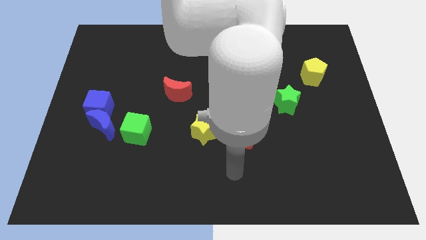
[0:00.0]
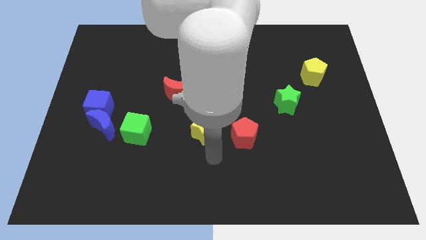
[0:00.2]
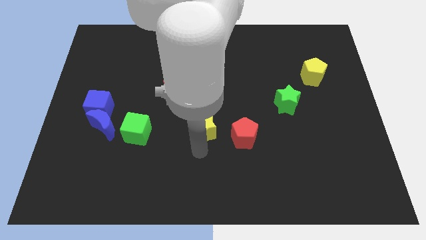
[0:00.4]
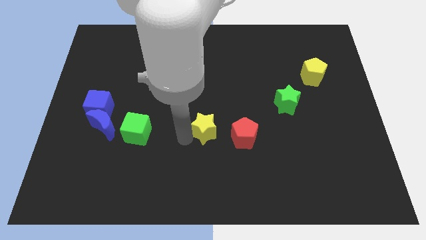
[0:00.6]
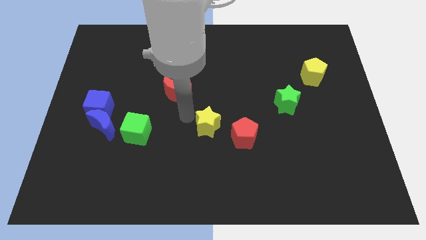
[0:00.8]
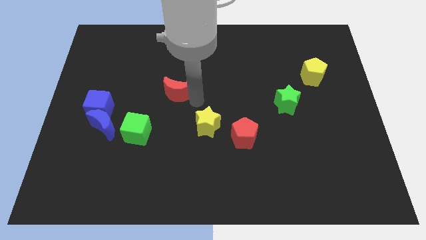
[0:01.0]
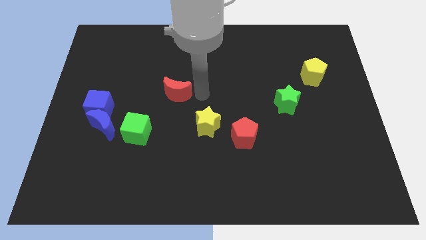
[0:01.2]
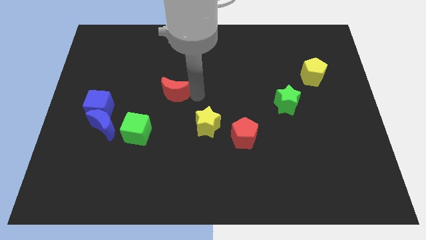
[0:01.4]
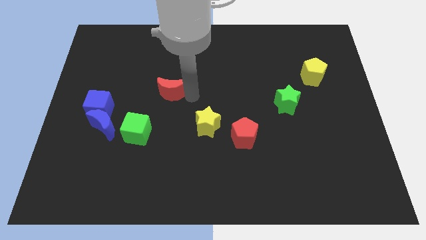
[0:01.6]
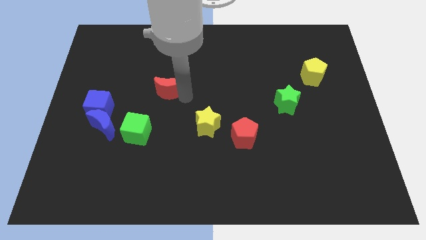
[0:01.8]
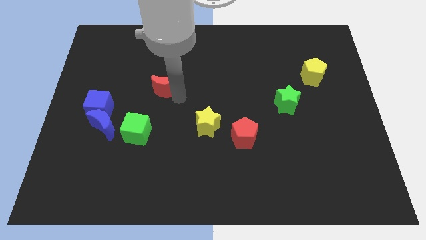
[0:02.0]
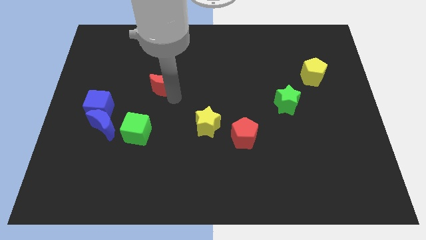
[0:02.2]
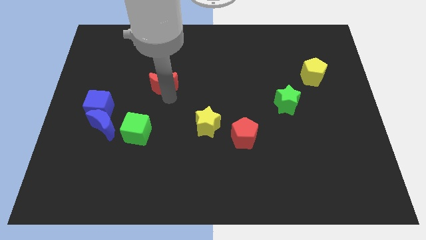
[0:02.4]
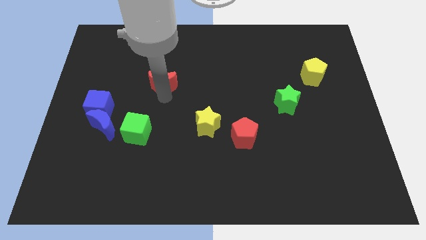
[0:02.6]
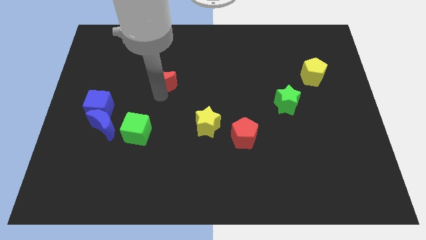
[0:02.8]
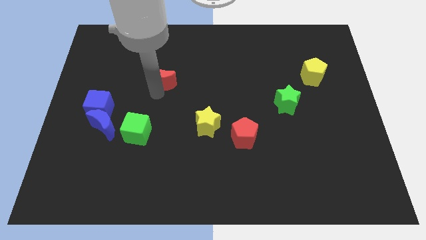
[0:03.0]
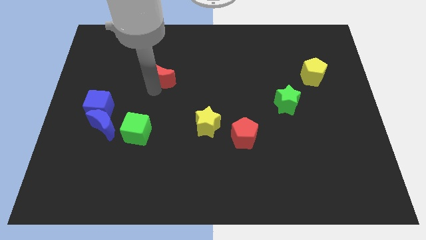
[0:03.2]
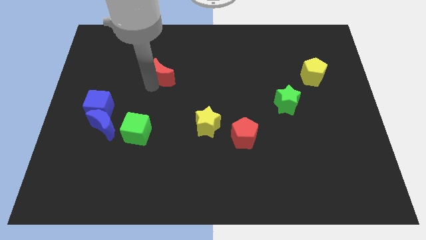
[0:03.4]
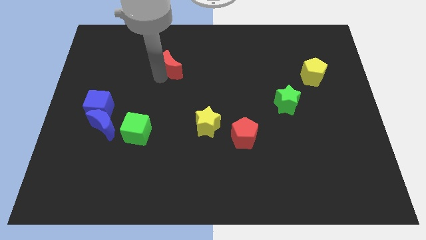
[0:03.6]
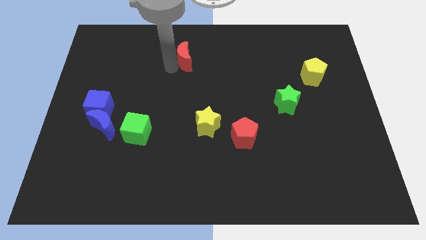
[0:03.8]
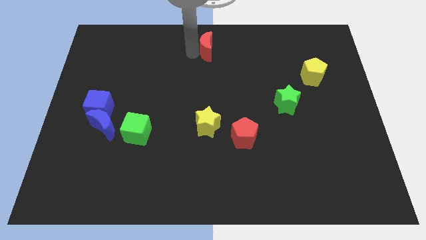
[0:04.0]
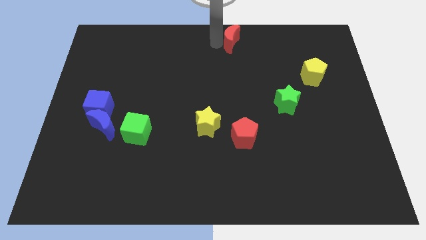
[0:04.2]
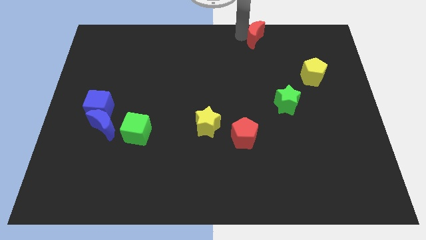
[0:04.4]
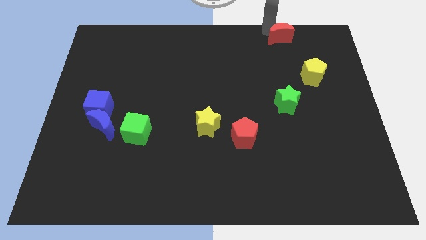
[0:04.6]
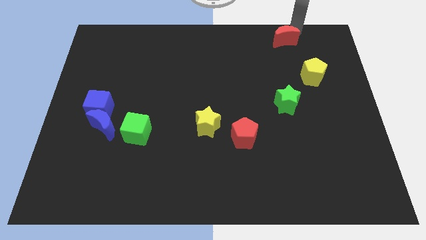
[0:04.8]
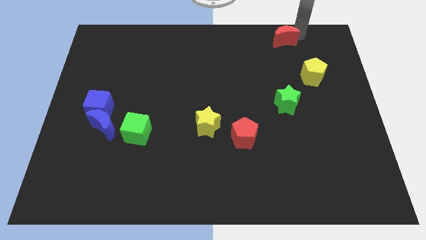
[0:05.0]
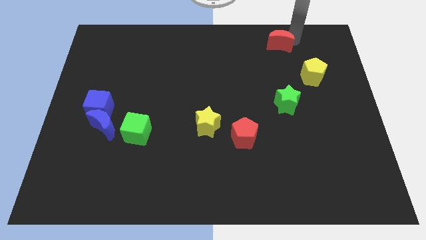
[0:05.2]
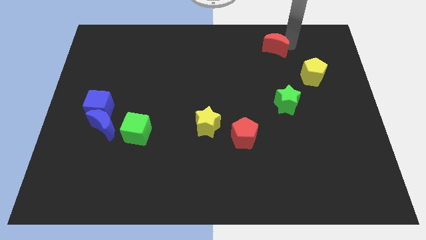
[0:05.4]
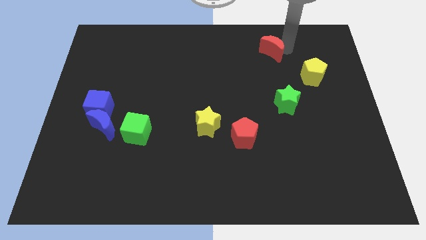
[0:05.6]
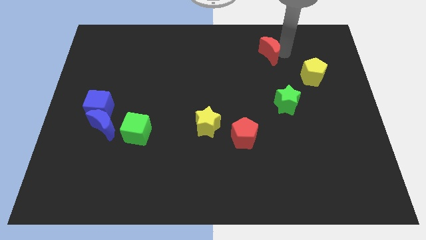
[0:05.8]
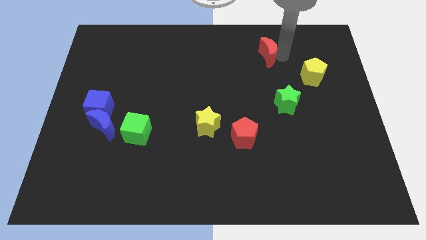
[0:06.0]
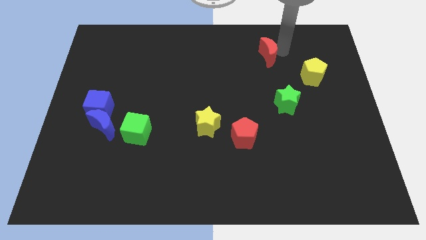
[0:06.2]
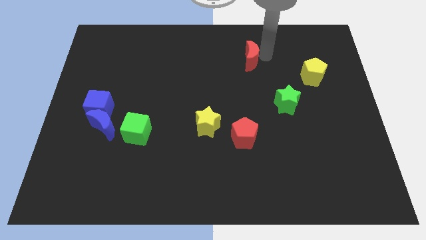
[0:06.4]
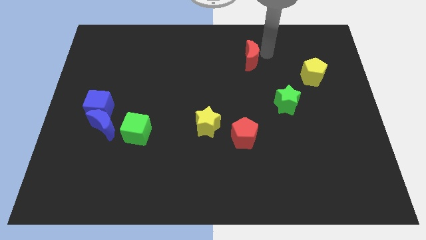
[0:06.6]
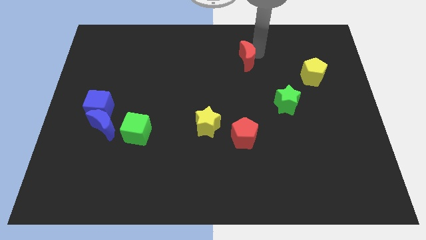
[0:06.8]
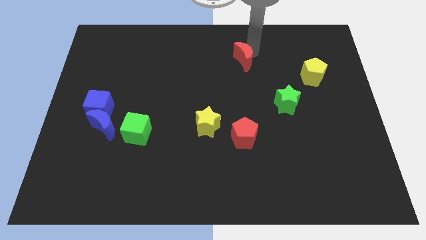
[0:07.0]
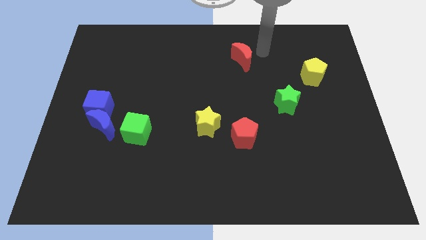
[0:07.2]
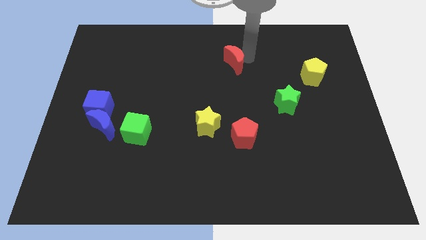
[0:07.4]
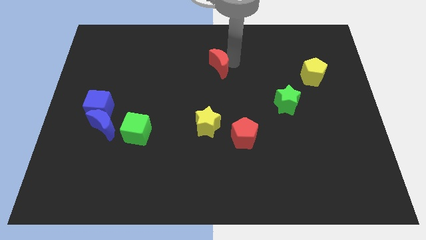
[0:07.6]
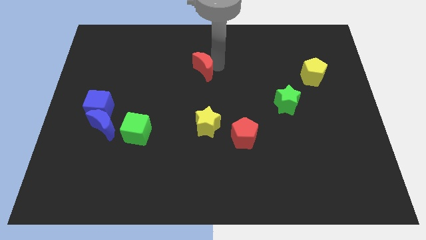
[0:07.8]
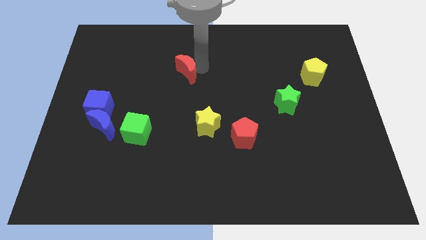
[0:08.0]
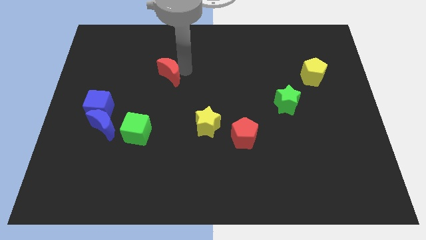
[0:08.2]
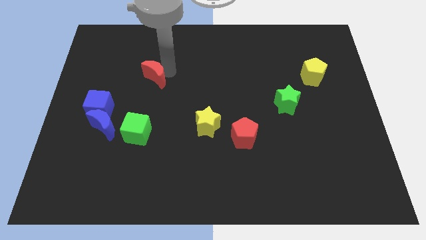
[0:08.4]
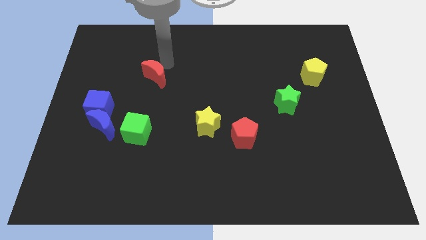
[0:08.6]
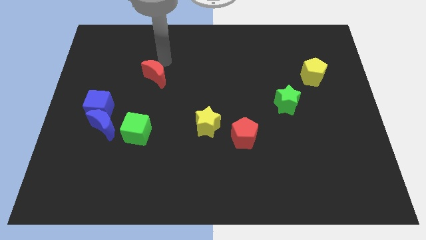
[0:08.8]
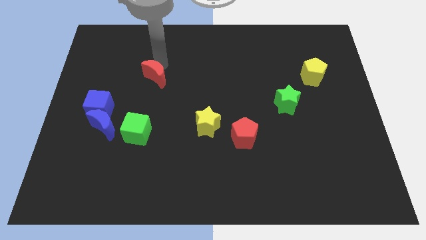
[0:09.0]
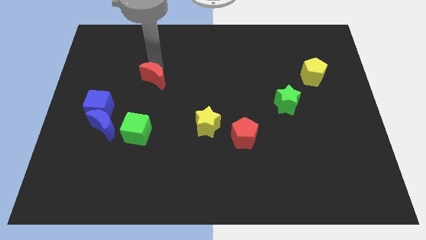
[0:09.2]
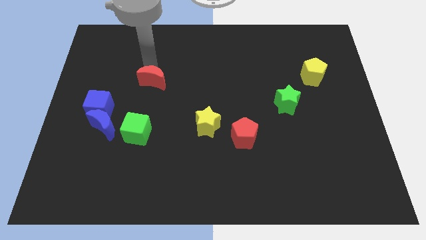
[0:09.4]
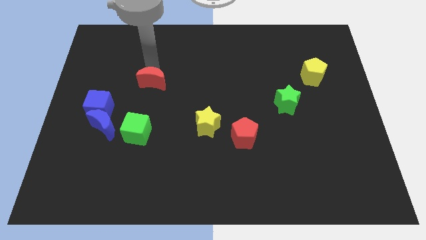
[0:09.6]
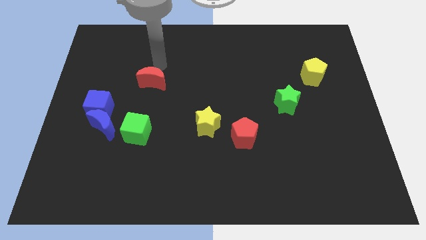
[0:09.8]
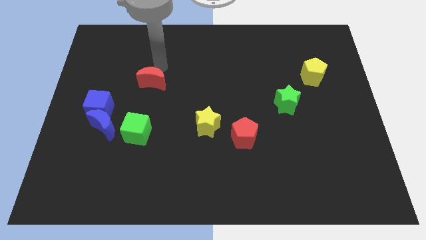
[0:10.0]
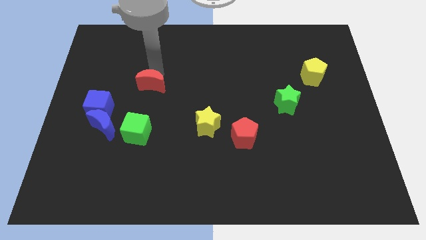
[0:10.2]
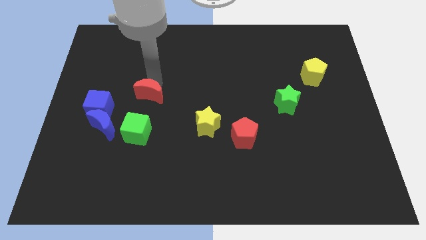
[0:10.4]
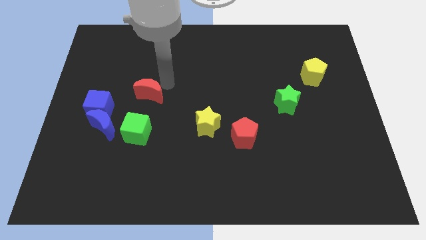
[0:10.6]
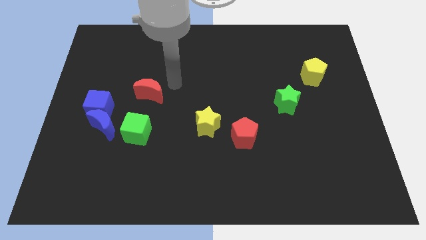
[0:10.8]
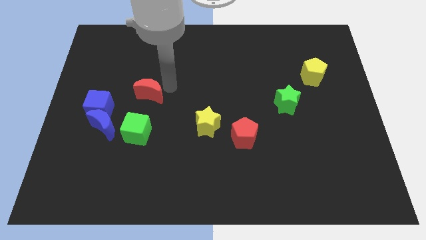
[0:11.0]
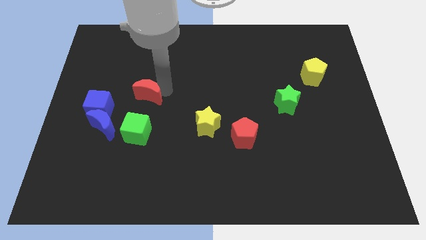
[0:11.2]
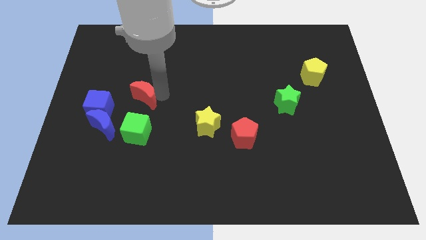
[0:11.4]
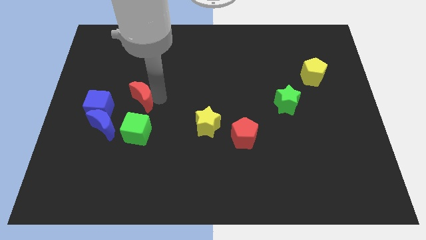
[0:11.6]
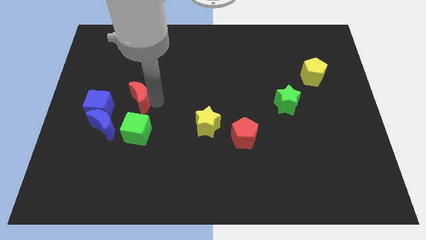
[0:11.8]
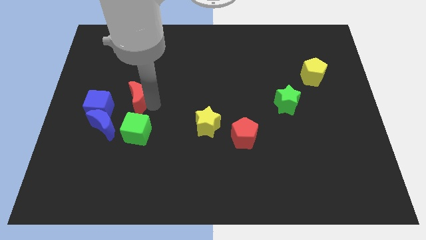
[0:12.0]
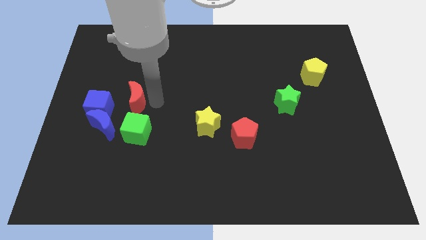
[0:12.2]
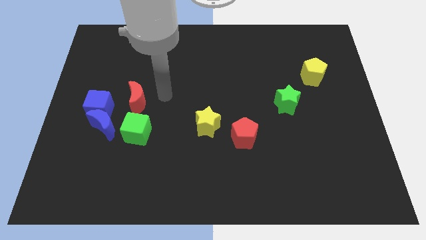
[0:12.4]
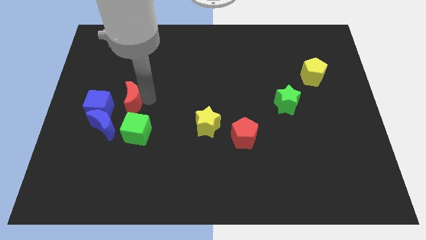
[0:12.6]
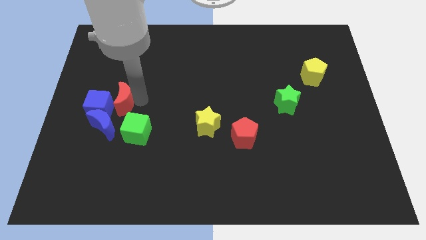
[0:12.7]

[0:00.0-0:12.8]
put the red moon to the blue cube

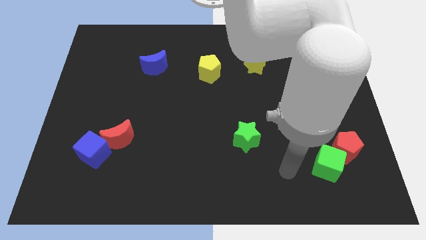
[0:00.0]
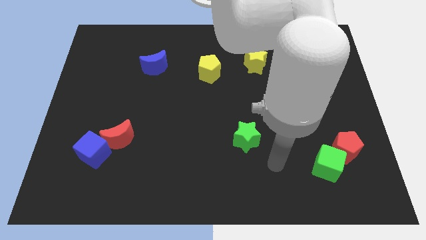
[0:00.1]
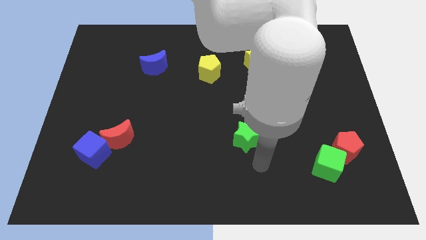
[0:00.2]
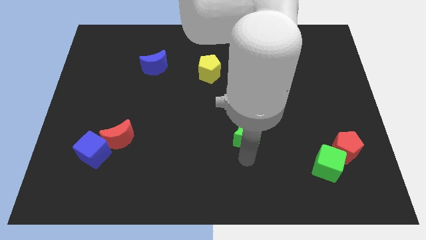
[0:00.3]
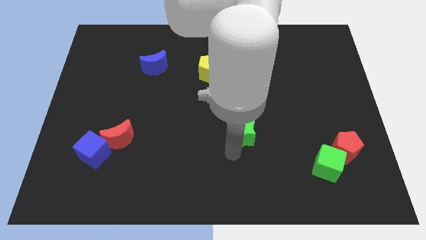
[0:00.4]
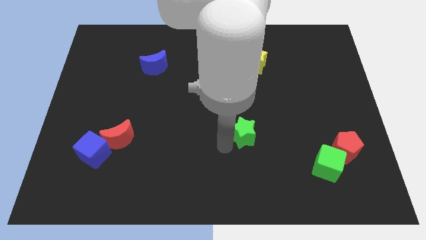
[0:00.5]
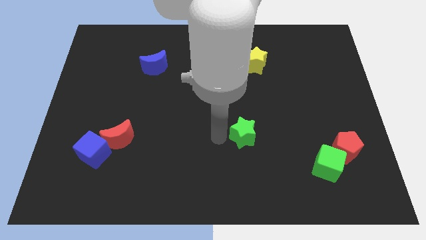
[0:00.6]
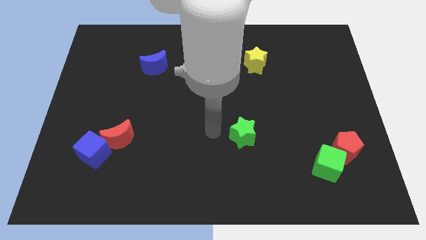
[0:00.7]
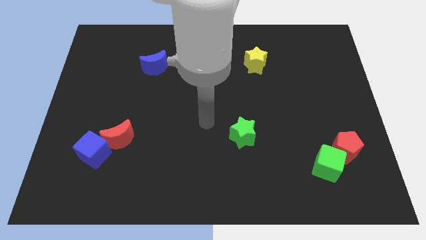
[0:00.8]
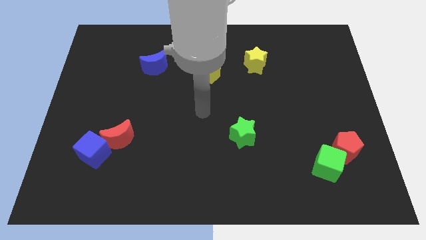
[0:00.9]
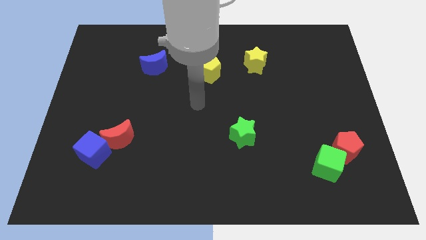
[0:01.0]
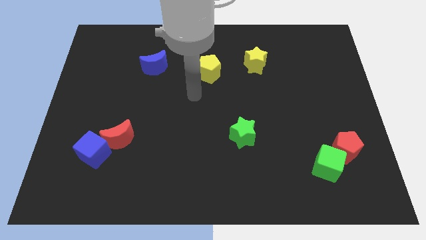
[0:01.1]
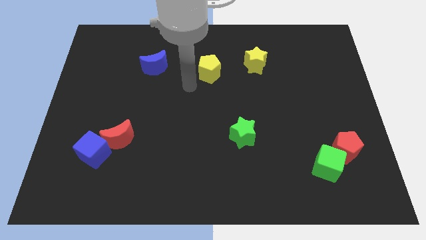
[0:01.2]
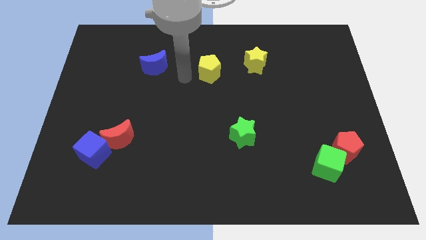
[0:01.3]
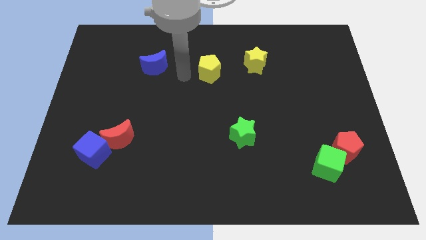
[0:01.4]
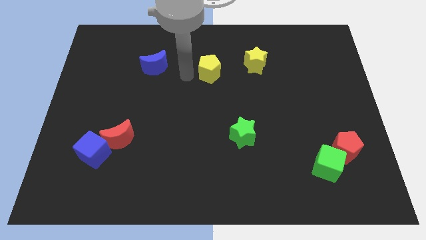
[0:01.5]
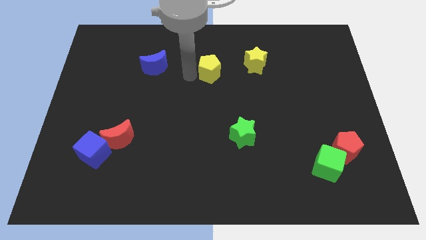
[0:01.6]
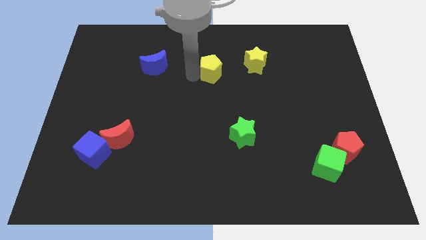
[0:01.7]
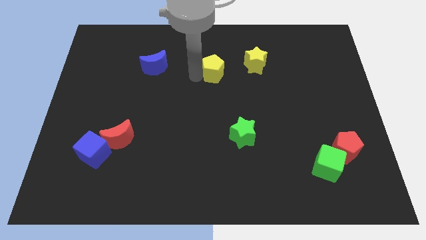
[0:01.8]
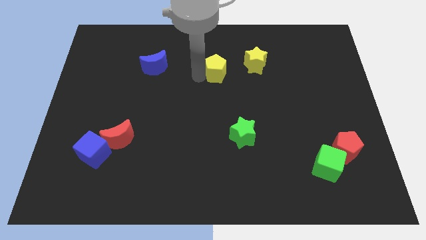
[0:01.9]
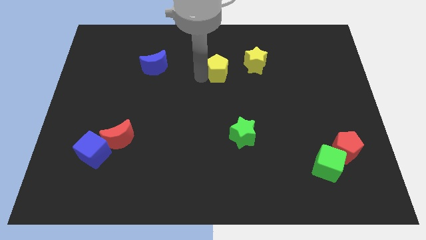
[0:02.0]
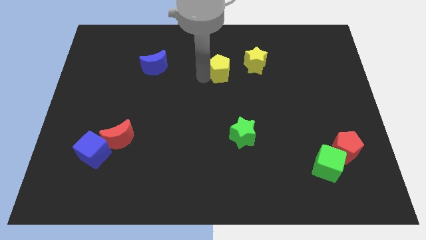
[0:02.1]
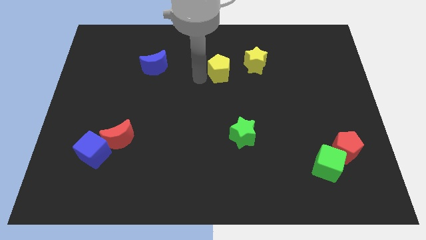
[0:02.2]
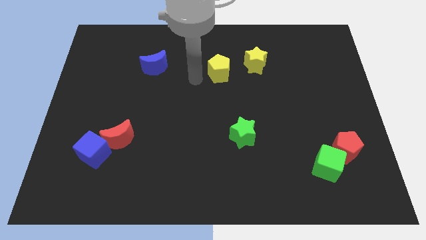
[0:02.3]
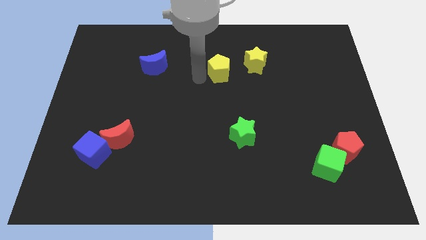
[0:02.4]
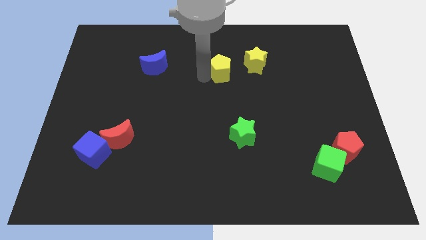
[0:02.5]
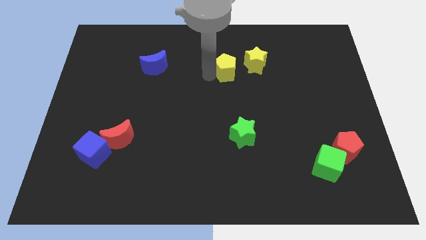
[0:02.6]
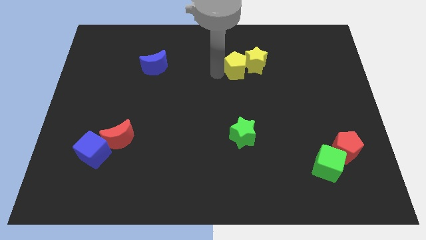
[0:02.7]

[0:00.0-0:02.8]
move the yellow pentagon close to the yellow star
